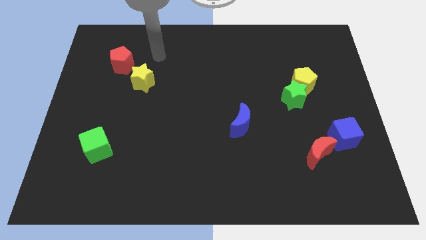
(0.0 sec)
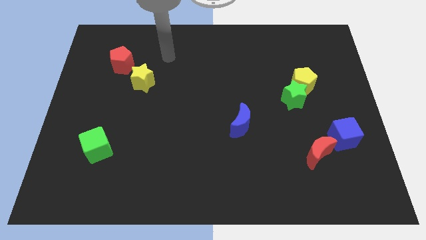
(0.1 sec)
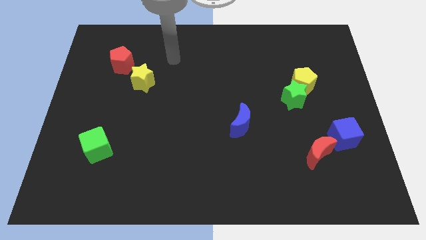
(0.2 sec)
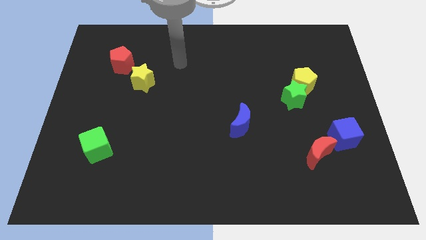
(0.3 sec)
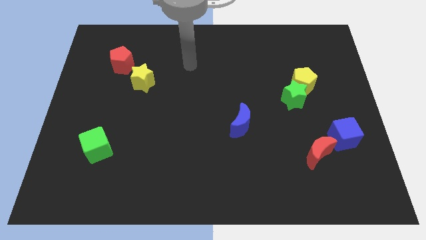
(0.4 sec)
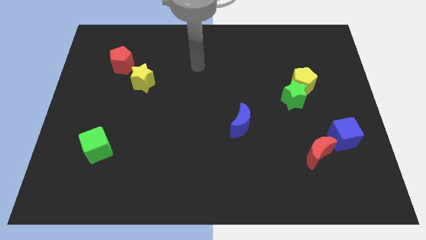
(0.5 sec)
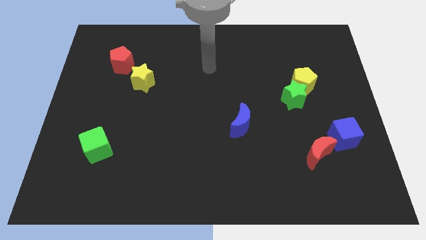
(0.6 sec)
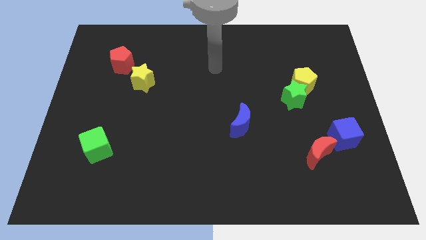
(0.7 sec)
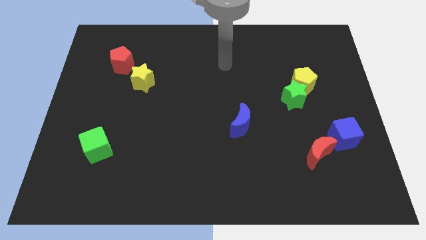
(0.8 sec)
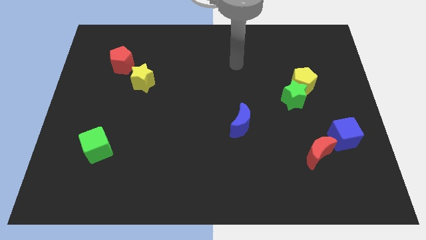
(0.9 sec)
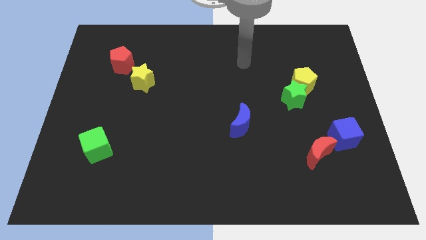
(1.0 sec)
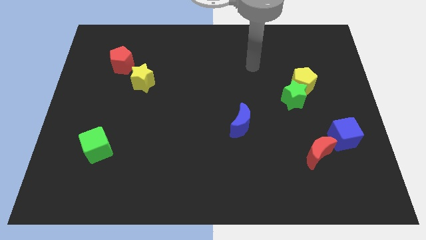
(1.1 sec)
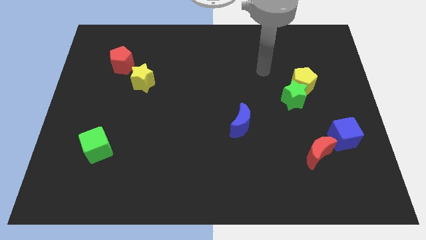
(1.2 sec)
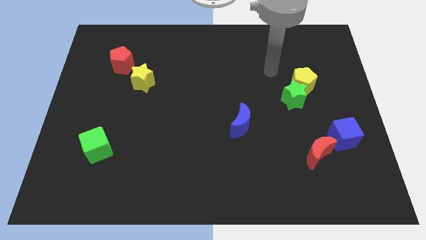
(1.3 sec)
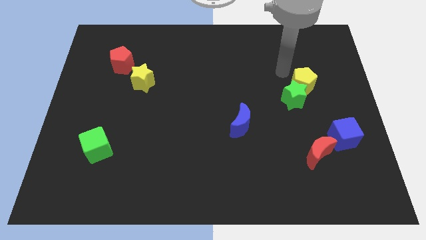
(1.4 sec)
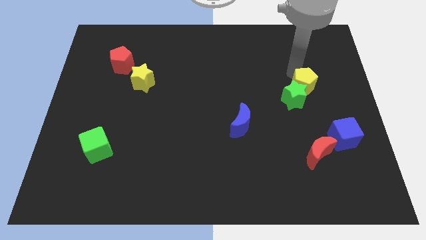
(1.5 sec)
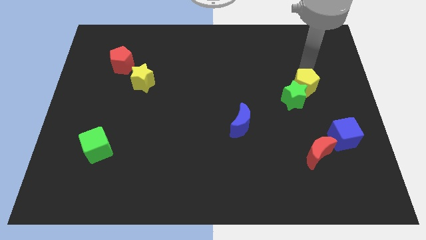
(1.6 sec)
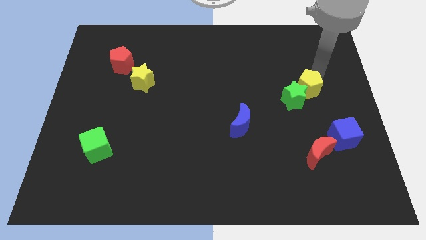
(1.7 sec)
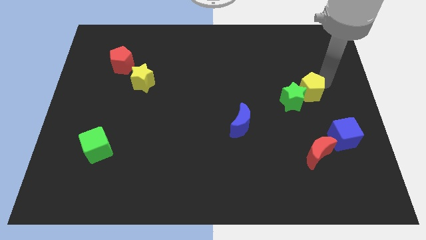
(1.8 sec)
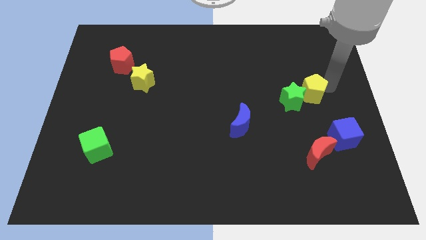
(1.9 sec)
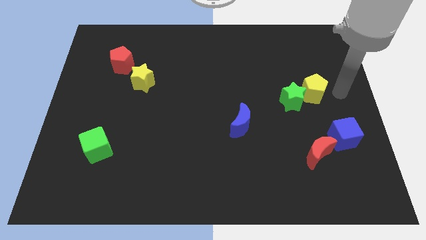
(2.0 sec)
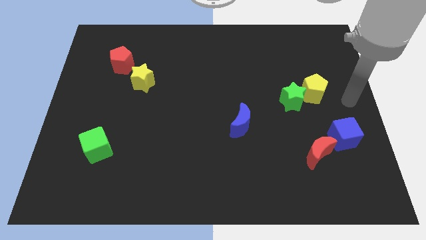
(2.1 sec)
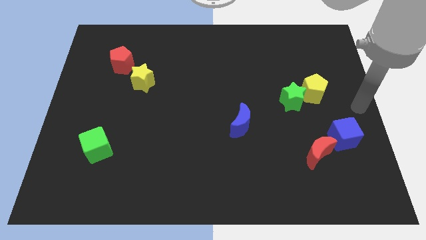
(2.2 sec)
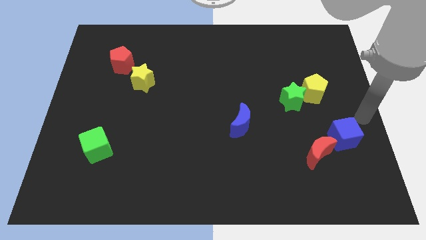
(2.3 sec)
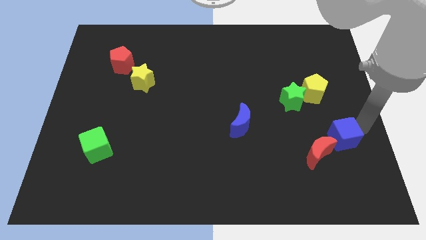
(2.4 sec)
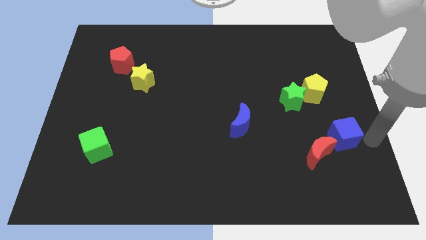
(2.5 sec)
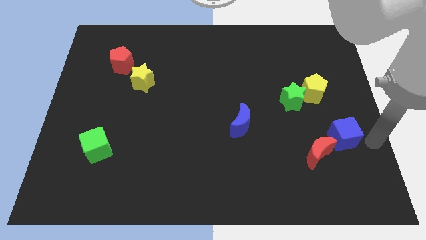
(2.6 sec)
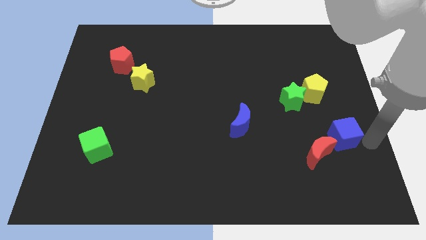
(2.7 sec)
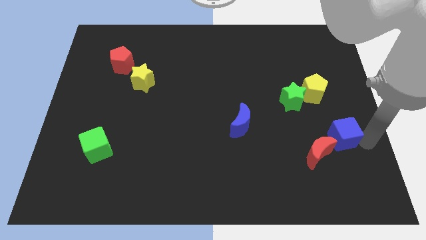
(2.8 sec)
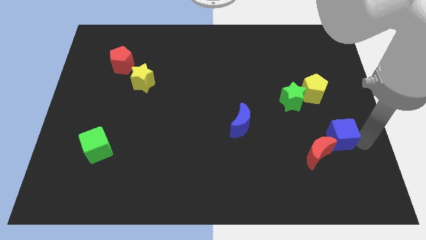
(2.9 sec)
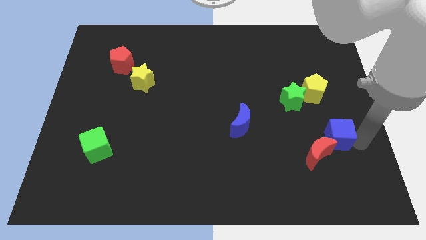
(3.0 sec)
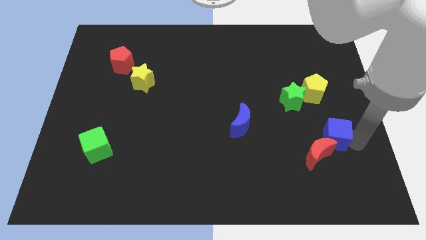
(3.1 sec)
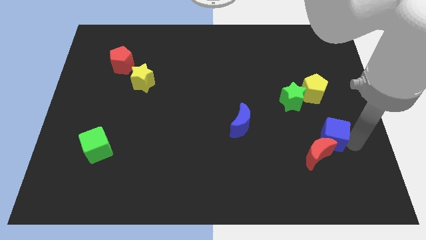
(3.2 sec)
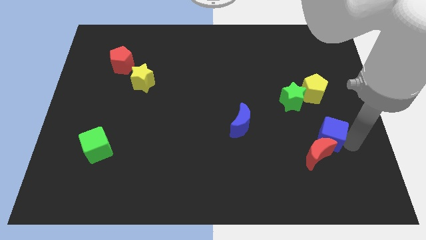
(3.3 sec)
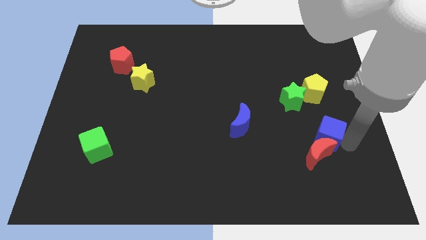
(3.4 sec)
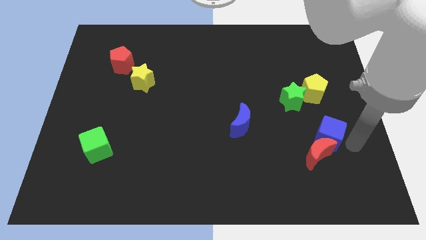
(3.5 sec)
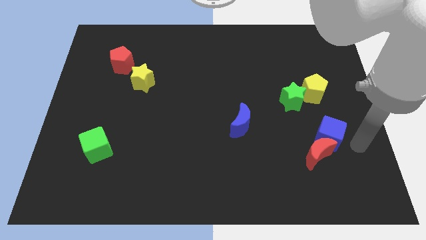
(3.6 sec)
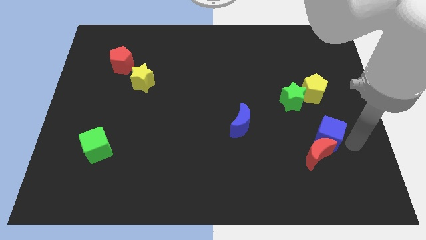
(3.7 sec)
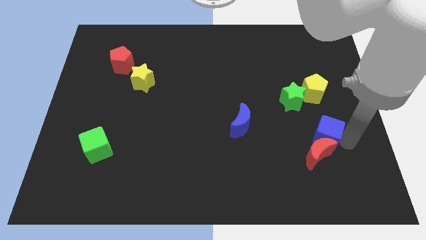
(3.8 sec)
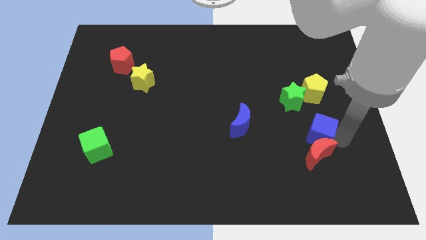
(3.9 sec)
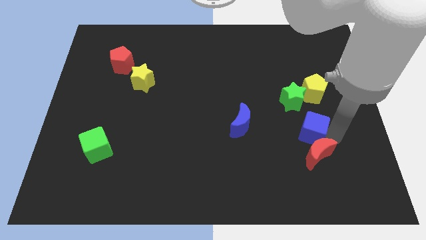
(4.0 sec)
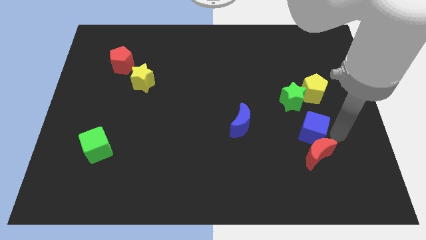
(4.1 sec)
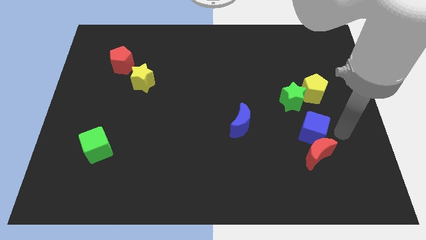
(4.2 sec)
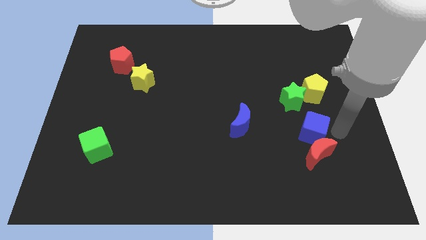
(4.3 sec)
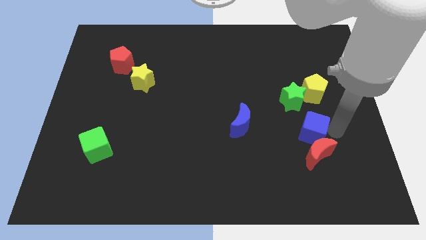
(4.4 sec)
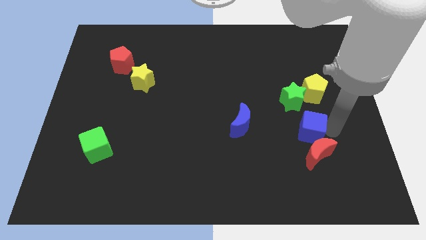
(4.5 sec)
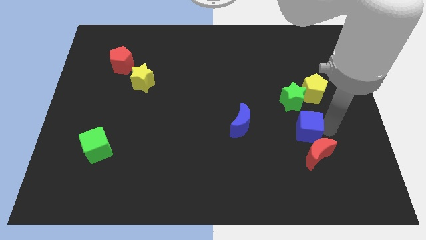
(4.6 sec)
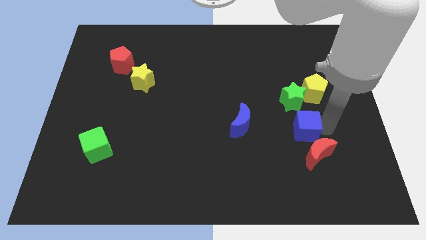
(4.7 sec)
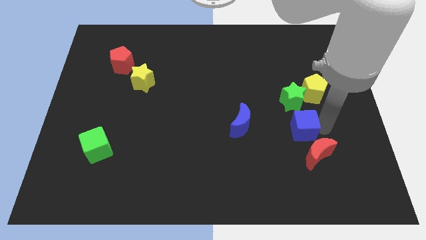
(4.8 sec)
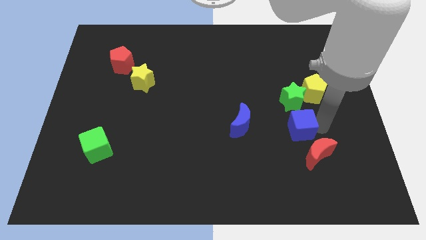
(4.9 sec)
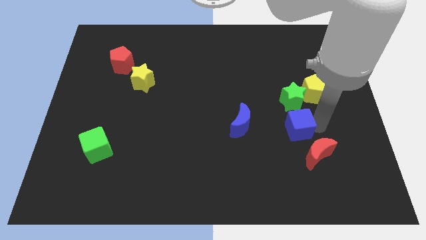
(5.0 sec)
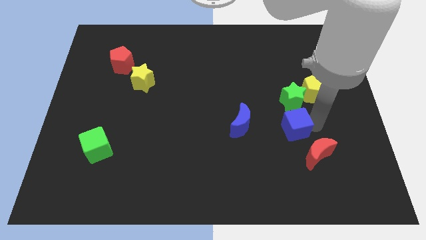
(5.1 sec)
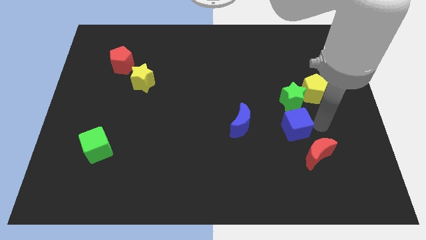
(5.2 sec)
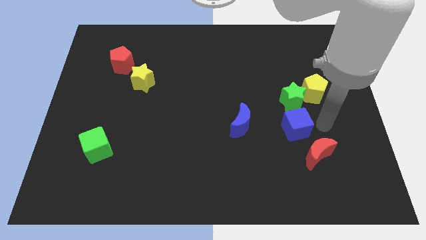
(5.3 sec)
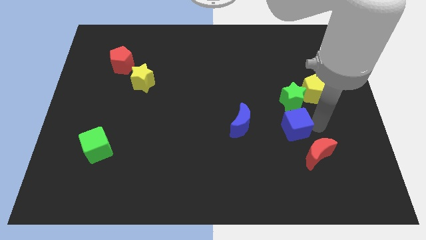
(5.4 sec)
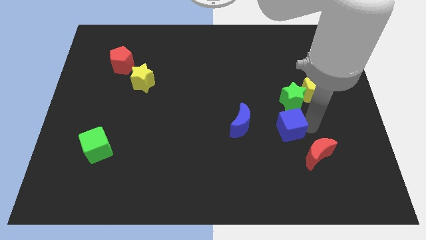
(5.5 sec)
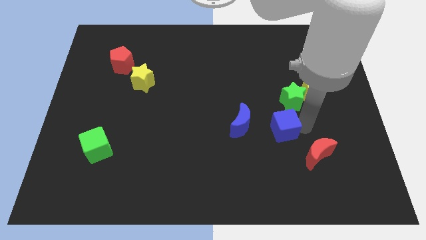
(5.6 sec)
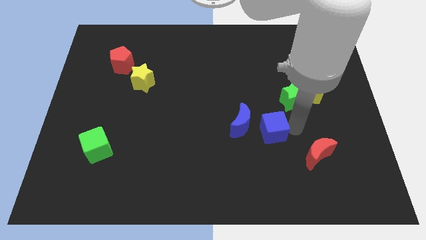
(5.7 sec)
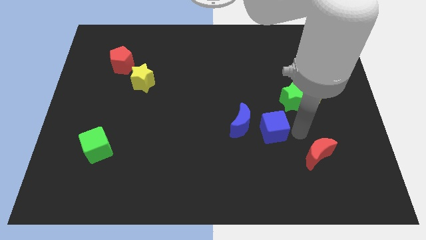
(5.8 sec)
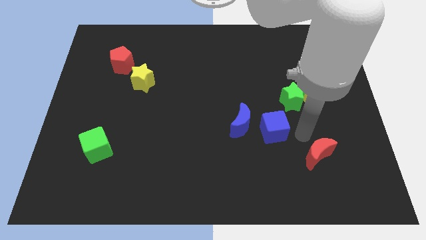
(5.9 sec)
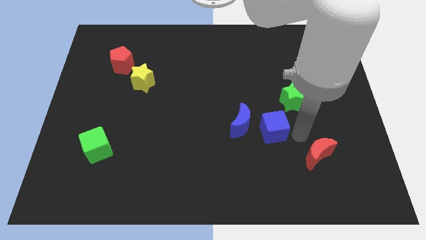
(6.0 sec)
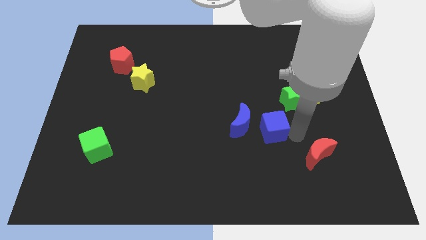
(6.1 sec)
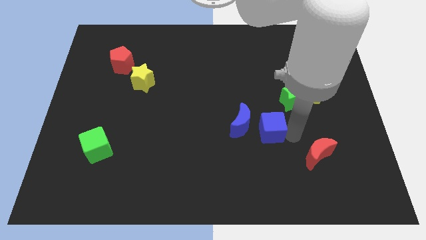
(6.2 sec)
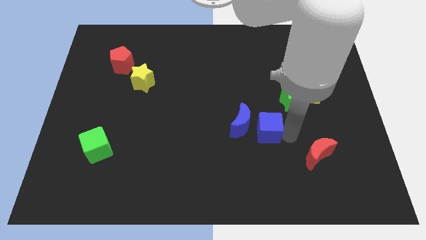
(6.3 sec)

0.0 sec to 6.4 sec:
push the blue cube to the blue moon

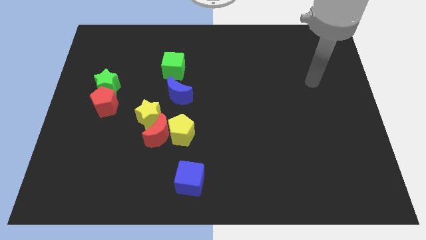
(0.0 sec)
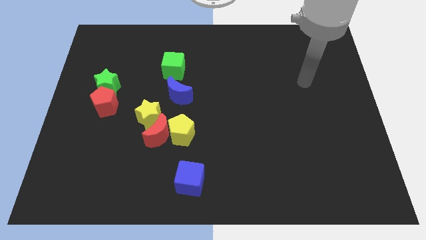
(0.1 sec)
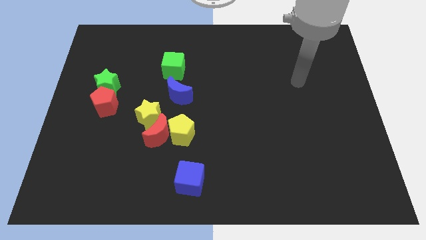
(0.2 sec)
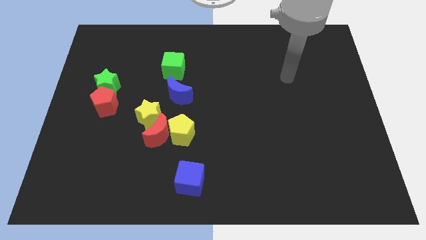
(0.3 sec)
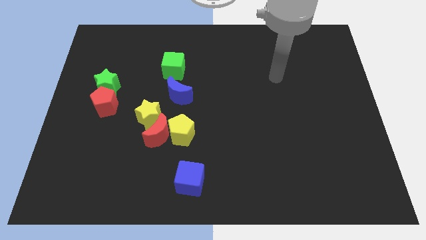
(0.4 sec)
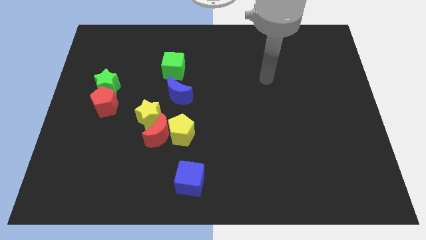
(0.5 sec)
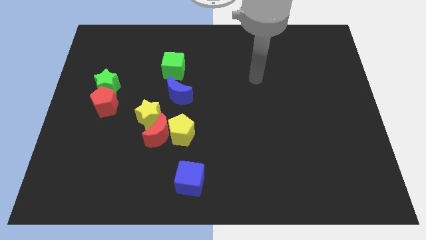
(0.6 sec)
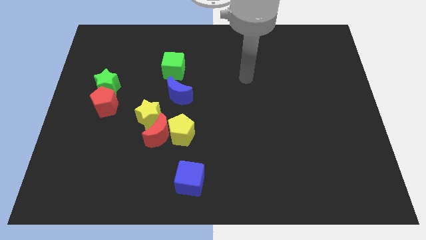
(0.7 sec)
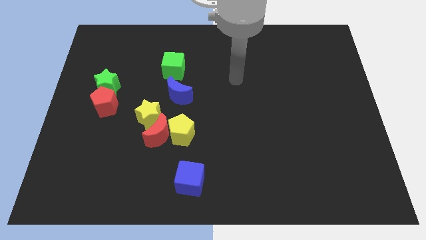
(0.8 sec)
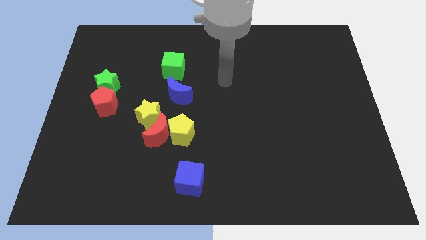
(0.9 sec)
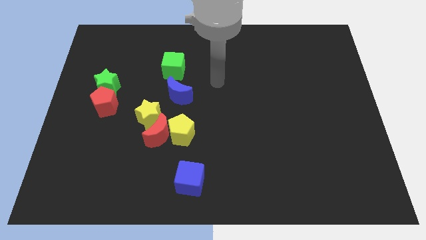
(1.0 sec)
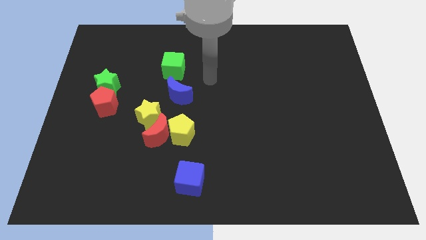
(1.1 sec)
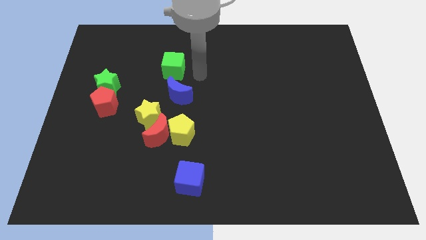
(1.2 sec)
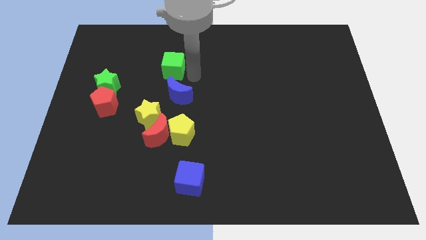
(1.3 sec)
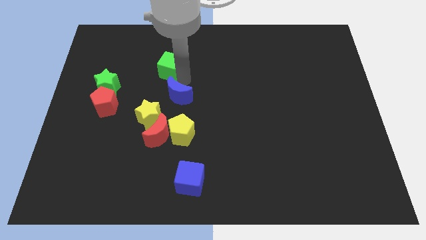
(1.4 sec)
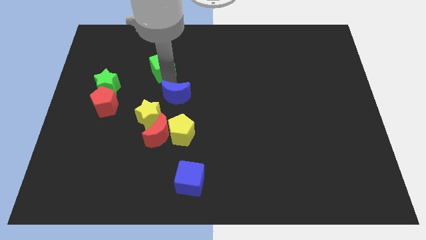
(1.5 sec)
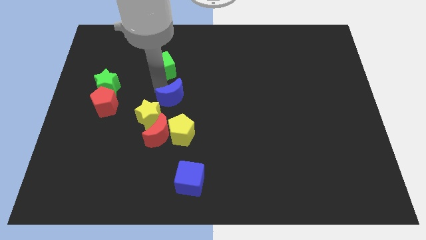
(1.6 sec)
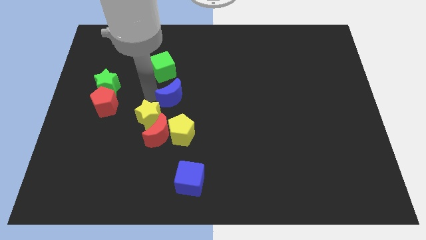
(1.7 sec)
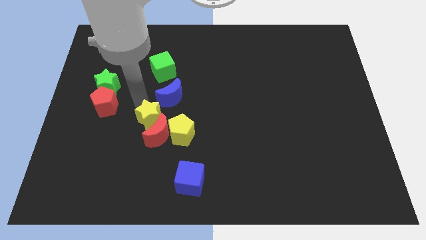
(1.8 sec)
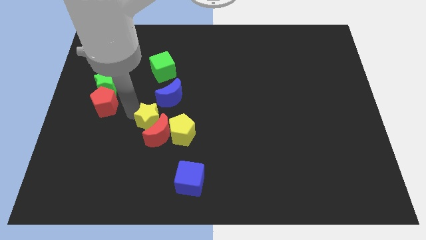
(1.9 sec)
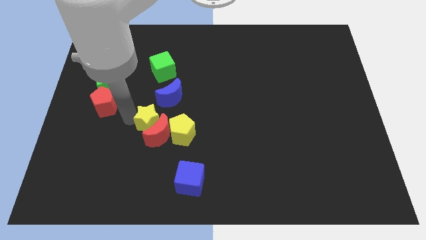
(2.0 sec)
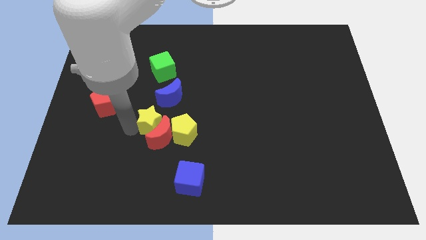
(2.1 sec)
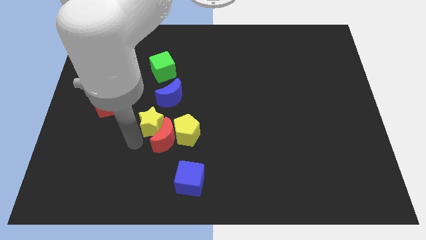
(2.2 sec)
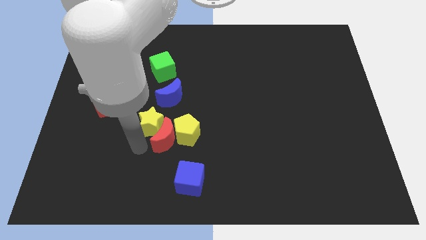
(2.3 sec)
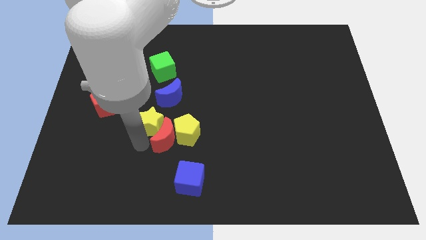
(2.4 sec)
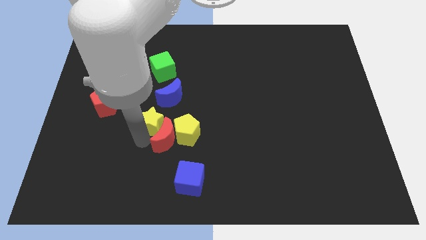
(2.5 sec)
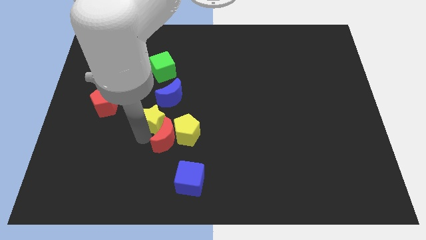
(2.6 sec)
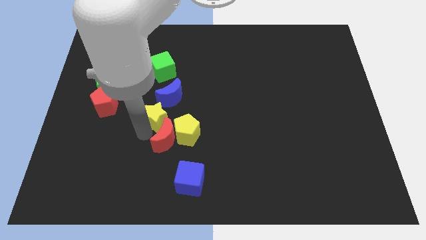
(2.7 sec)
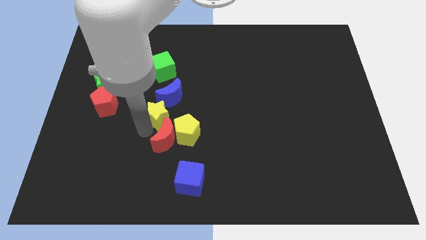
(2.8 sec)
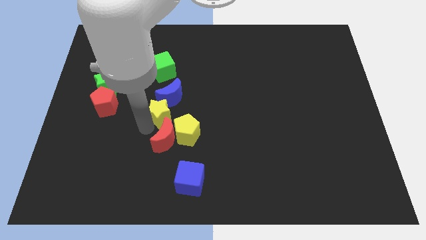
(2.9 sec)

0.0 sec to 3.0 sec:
push the yellow star to the blue moon
